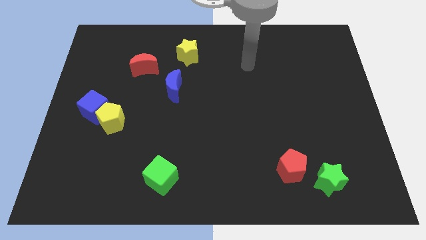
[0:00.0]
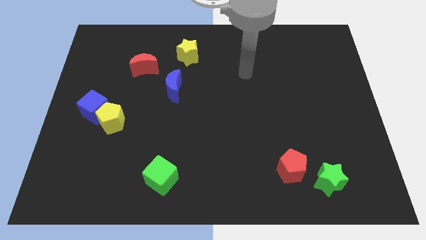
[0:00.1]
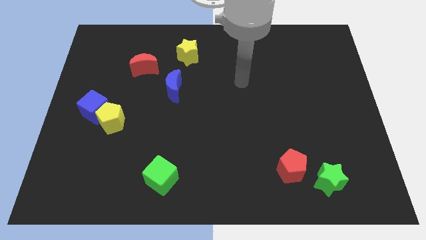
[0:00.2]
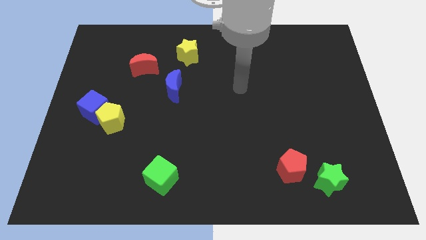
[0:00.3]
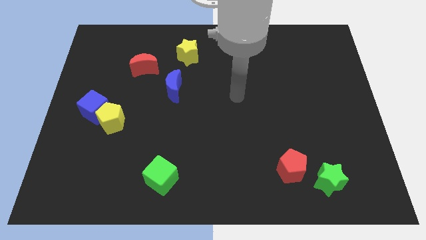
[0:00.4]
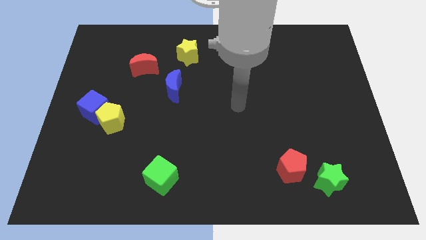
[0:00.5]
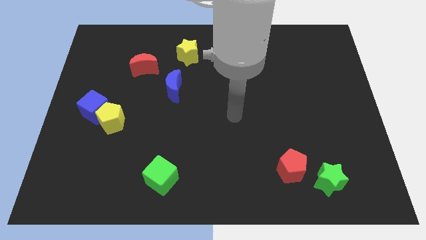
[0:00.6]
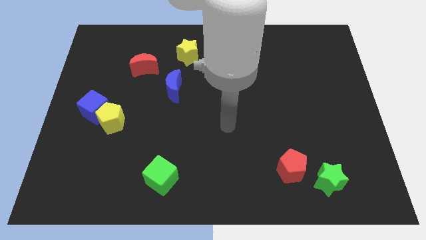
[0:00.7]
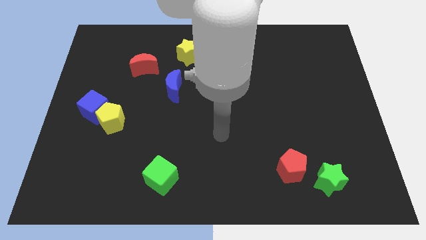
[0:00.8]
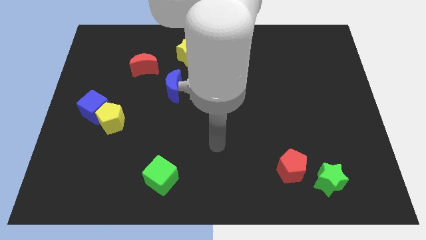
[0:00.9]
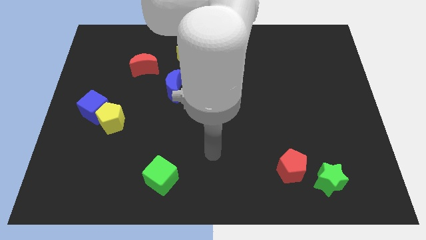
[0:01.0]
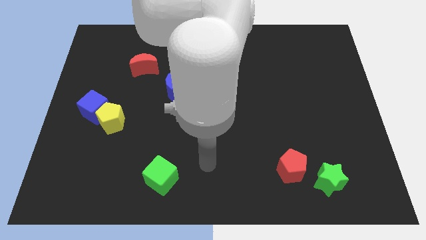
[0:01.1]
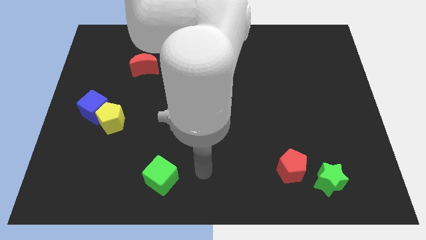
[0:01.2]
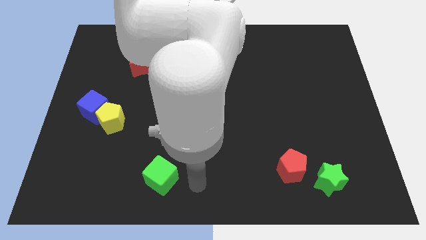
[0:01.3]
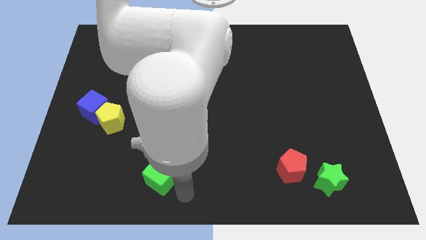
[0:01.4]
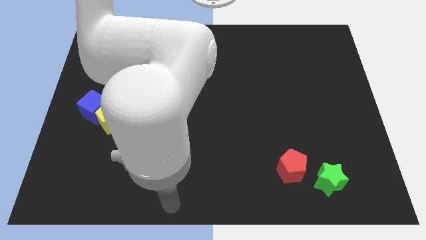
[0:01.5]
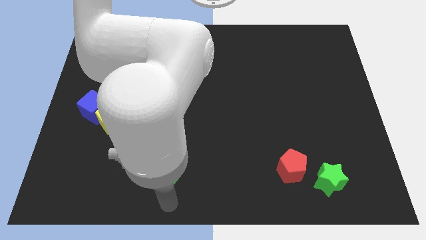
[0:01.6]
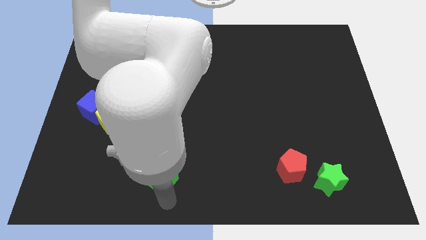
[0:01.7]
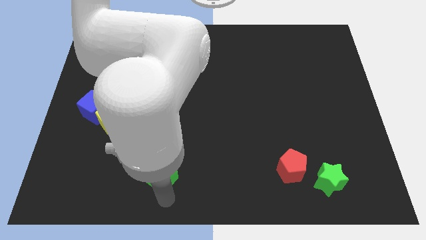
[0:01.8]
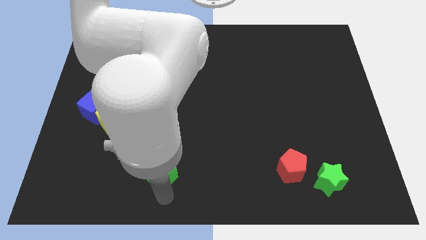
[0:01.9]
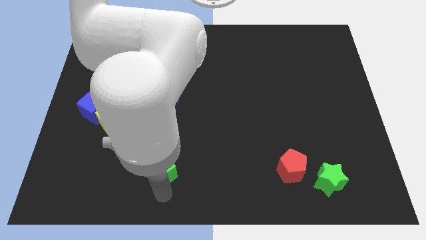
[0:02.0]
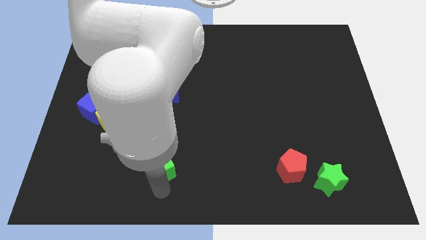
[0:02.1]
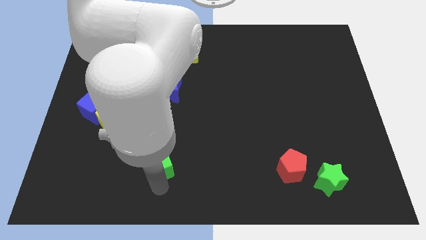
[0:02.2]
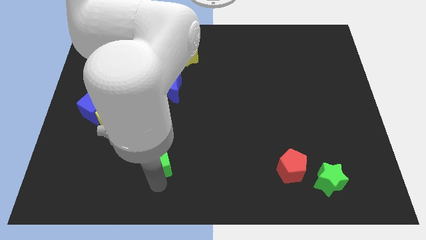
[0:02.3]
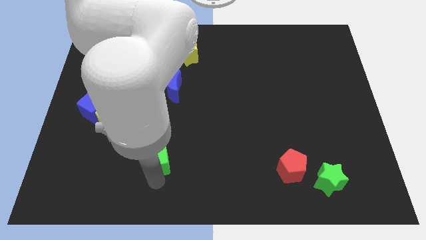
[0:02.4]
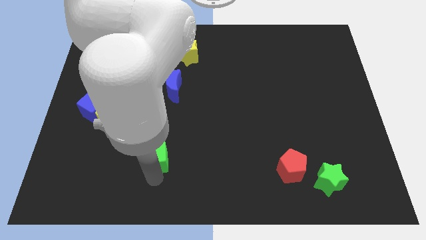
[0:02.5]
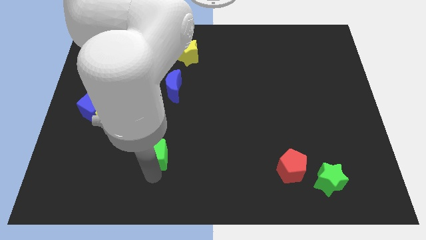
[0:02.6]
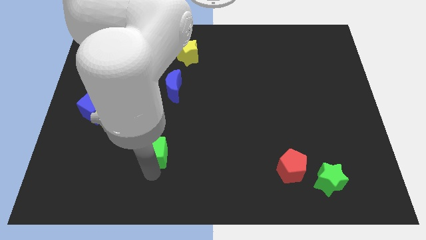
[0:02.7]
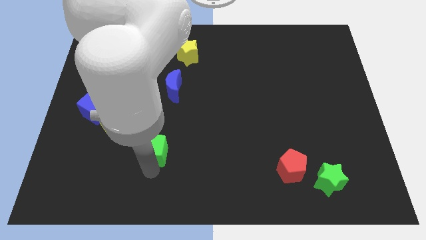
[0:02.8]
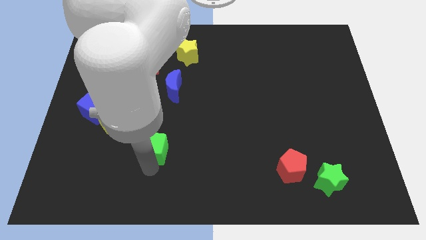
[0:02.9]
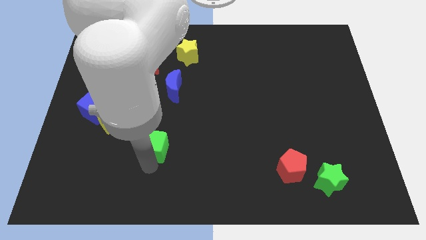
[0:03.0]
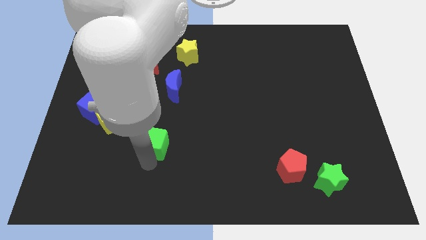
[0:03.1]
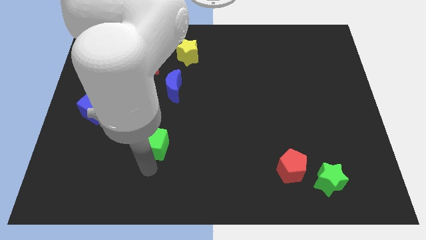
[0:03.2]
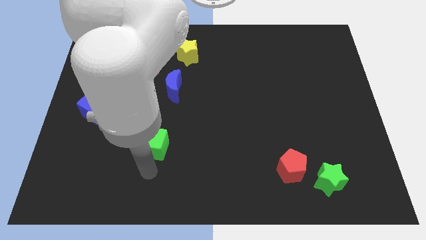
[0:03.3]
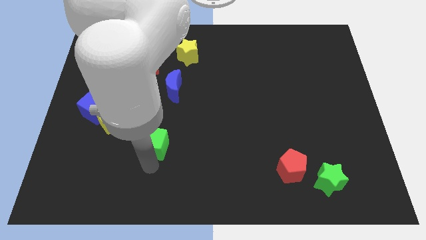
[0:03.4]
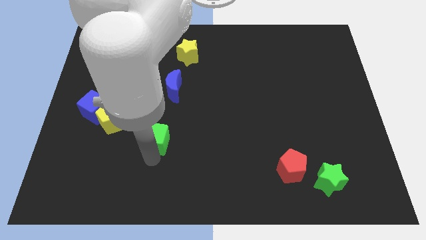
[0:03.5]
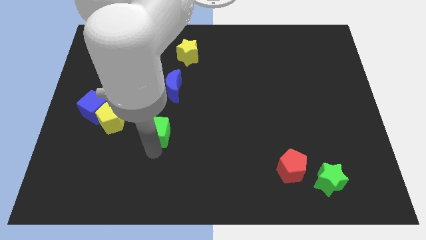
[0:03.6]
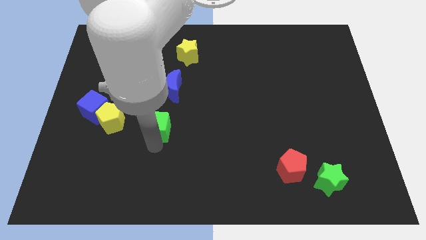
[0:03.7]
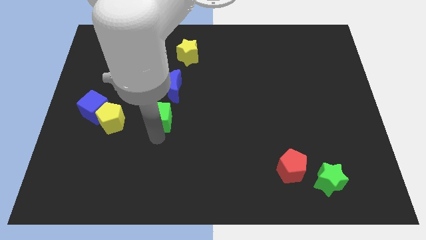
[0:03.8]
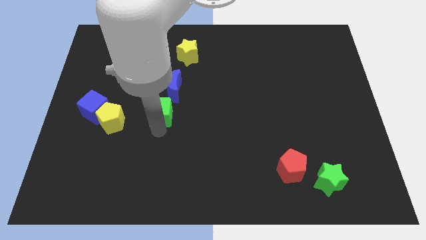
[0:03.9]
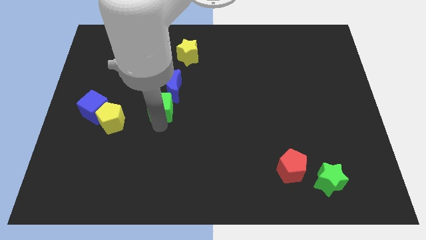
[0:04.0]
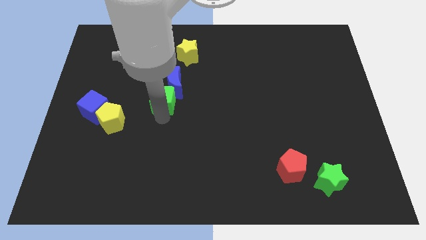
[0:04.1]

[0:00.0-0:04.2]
push the green cube upwards

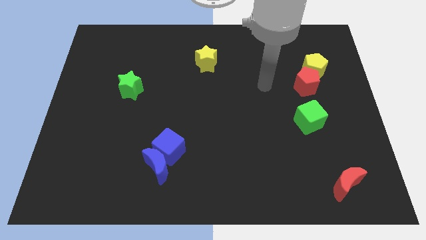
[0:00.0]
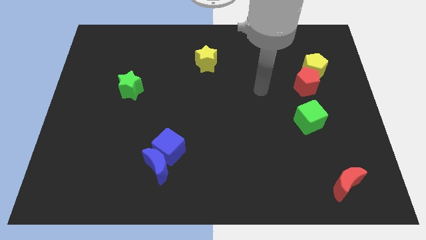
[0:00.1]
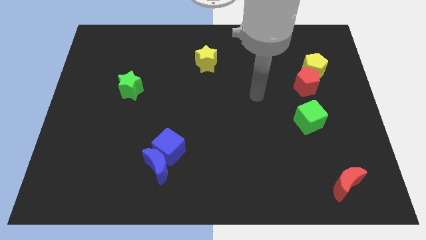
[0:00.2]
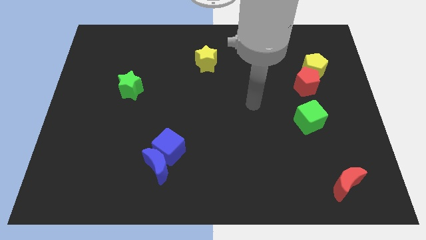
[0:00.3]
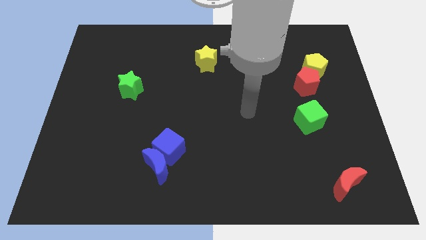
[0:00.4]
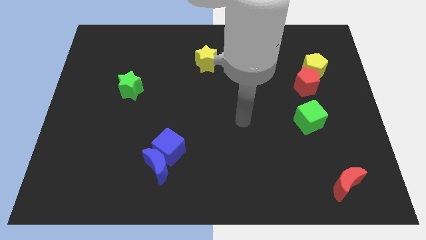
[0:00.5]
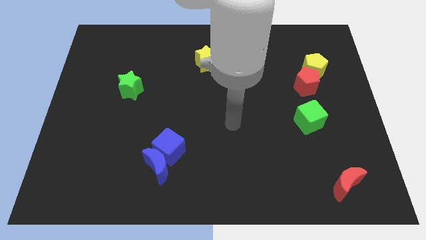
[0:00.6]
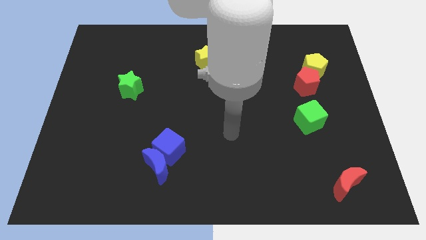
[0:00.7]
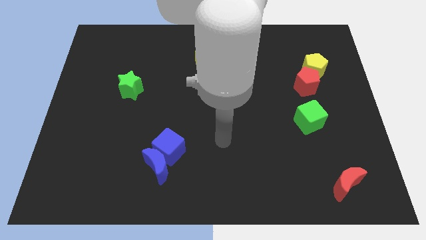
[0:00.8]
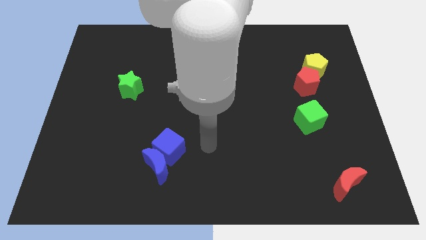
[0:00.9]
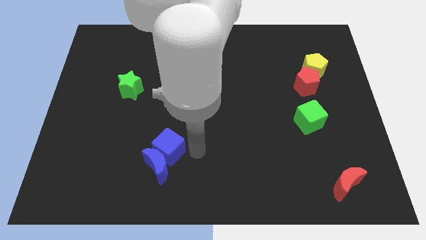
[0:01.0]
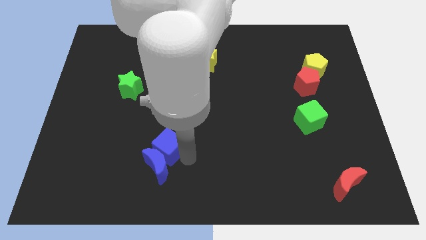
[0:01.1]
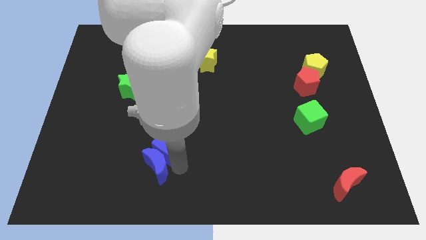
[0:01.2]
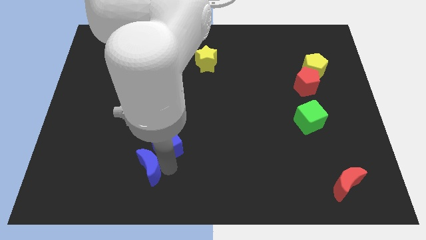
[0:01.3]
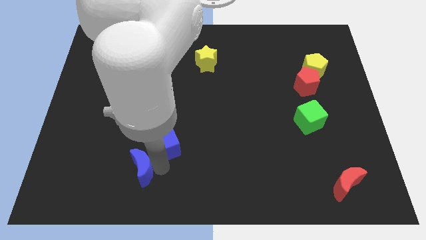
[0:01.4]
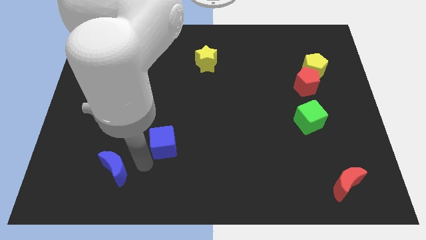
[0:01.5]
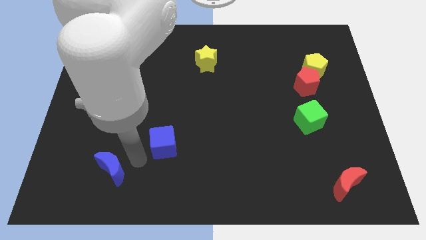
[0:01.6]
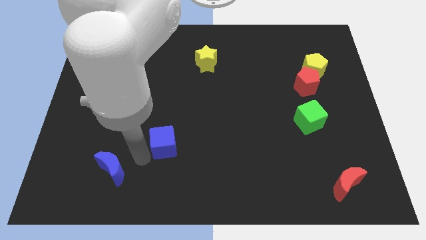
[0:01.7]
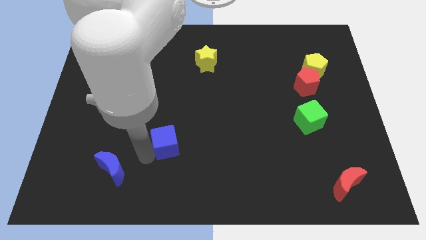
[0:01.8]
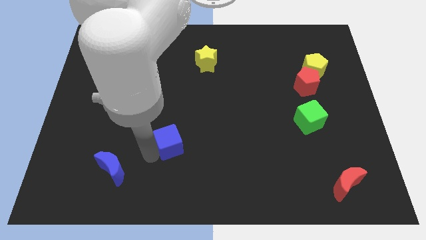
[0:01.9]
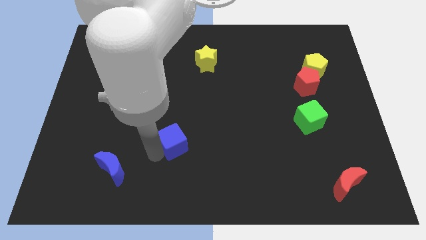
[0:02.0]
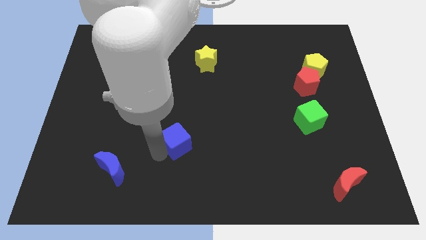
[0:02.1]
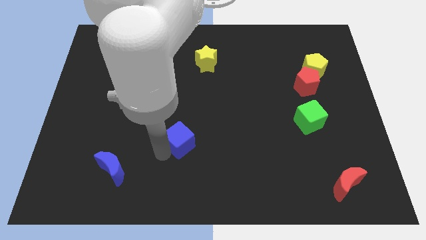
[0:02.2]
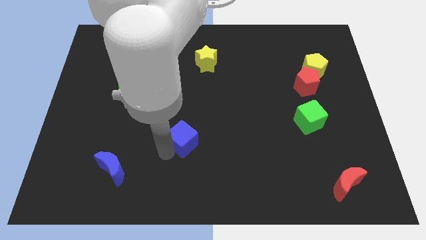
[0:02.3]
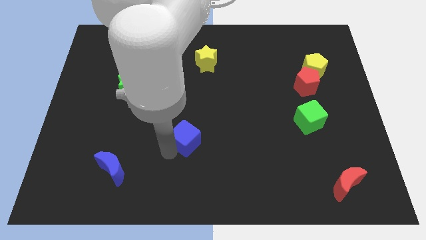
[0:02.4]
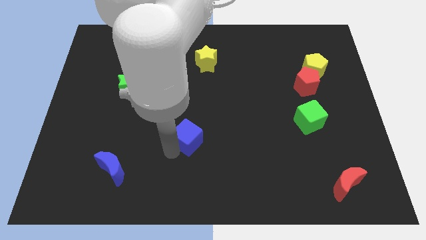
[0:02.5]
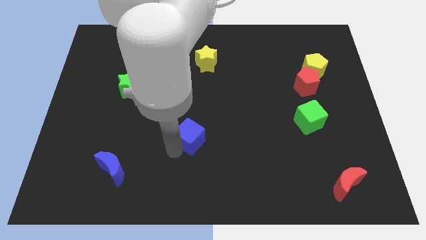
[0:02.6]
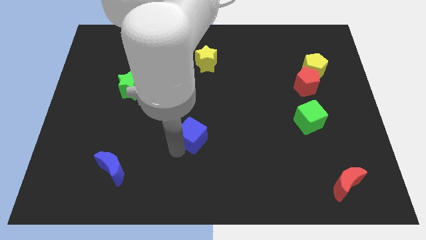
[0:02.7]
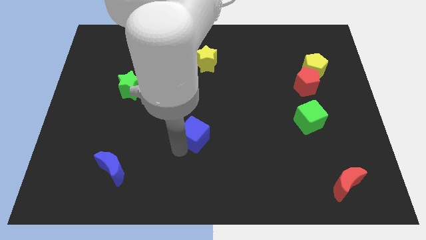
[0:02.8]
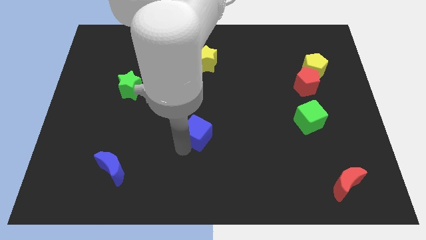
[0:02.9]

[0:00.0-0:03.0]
move the blue cube slightly up and right diagonally

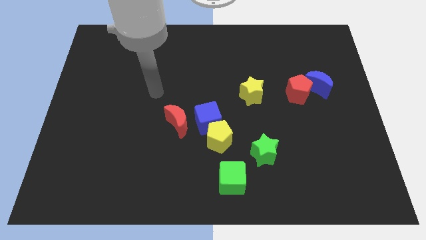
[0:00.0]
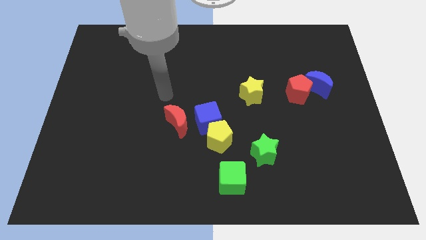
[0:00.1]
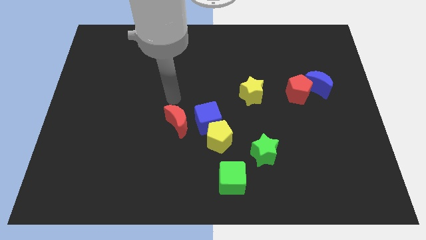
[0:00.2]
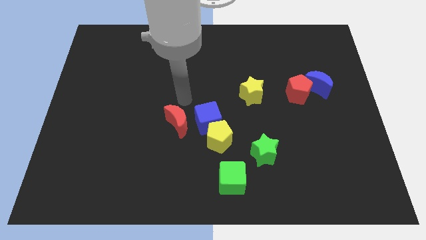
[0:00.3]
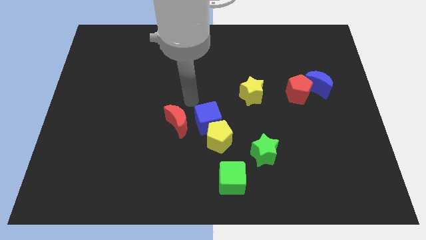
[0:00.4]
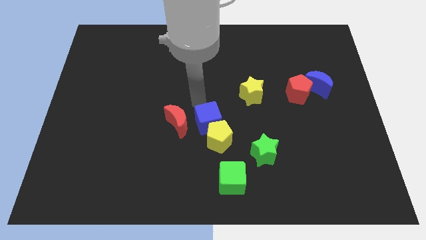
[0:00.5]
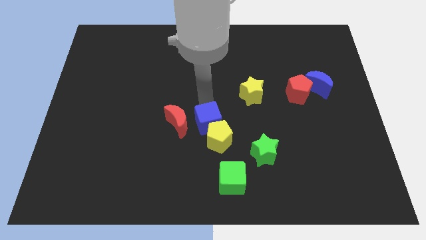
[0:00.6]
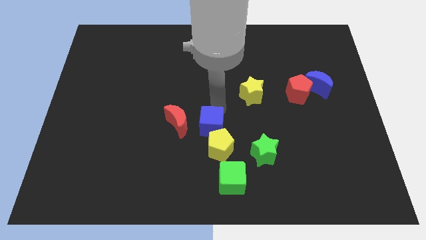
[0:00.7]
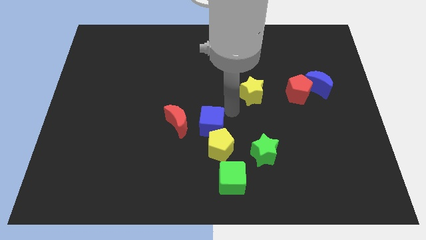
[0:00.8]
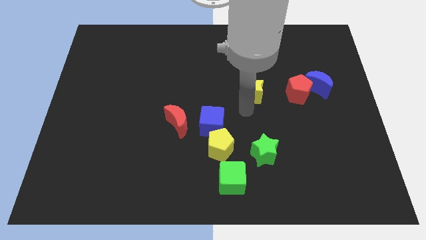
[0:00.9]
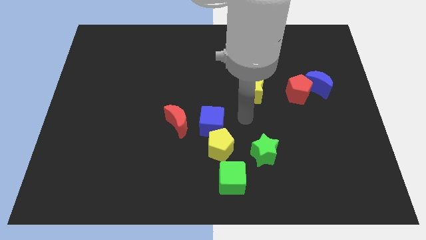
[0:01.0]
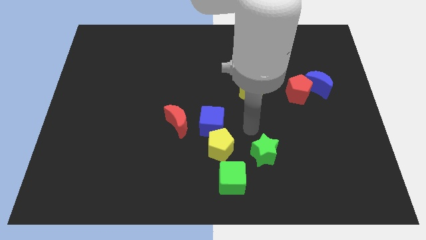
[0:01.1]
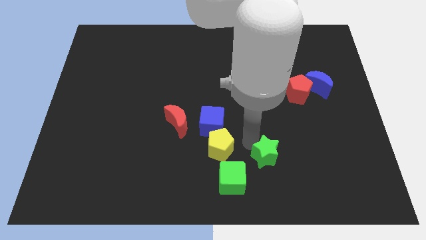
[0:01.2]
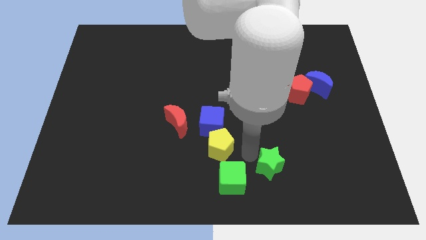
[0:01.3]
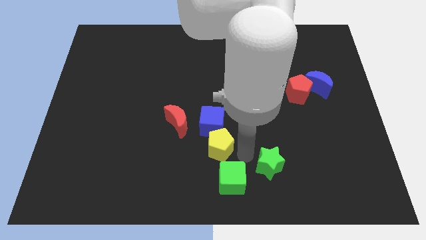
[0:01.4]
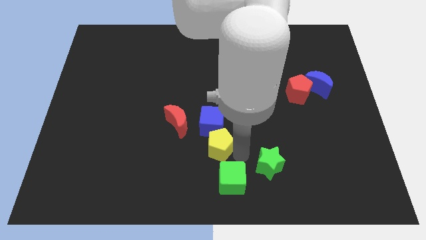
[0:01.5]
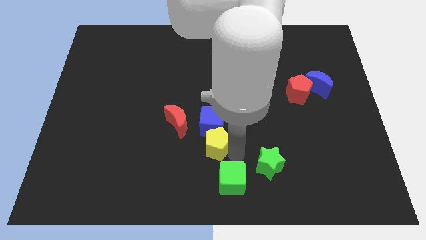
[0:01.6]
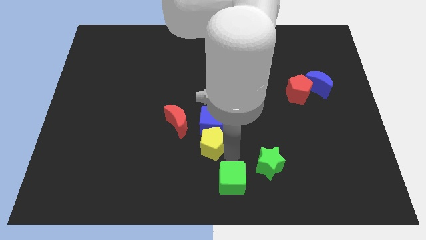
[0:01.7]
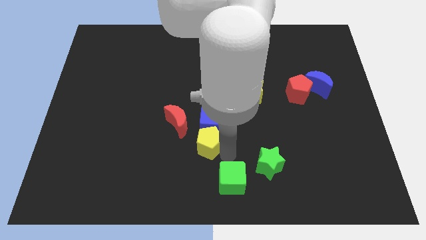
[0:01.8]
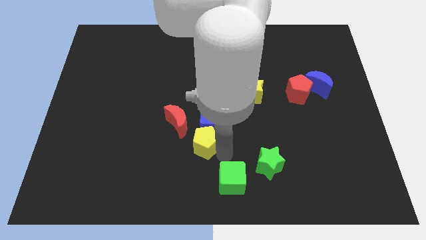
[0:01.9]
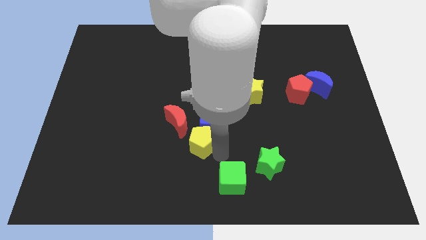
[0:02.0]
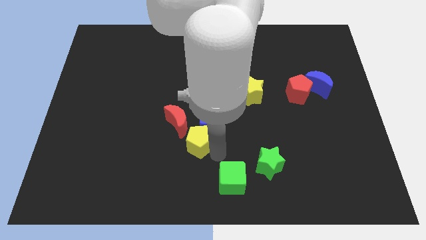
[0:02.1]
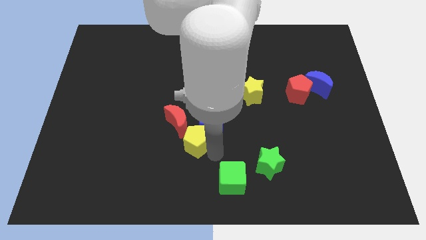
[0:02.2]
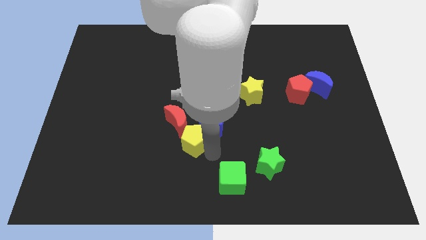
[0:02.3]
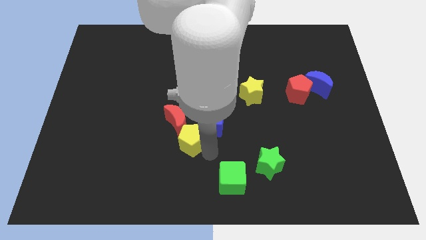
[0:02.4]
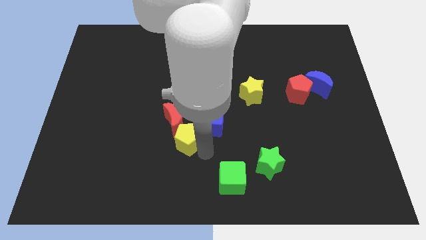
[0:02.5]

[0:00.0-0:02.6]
slightly slide the yellow pentagon left
